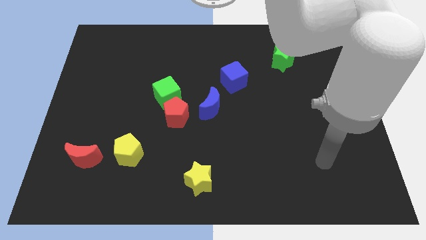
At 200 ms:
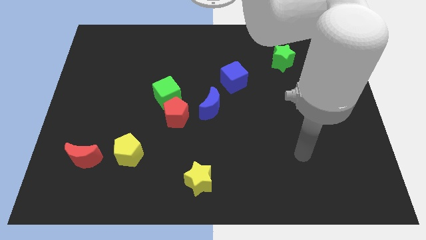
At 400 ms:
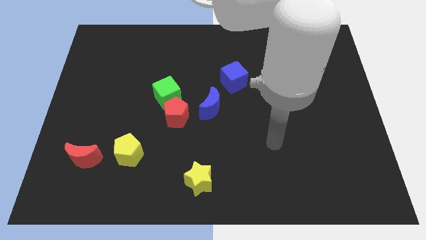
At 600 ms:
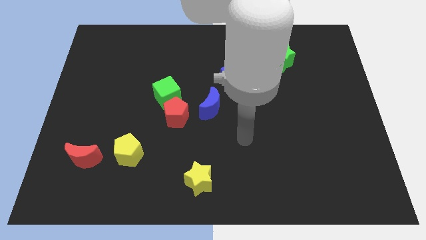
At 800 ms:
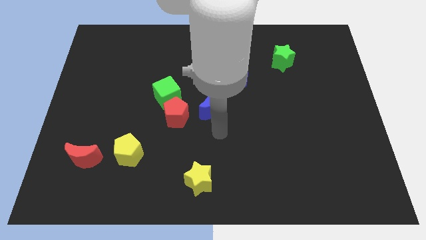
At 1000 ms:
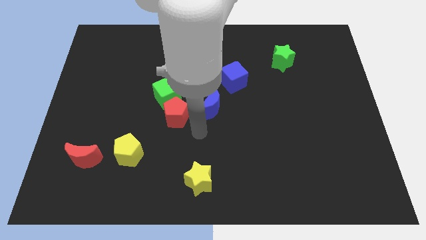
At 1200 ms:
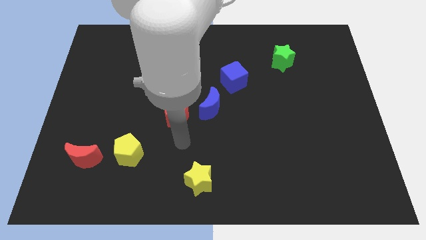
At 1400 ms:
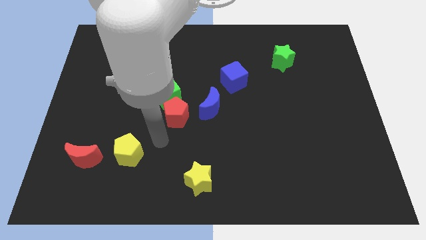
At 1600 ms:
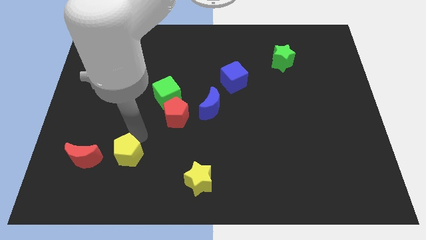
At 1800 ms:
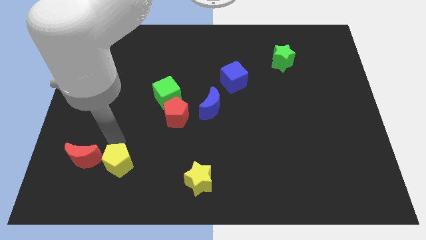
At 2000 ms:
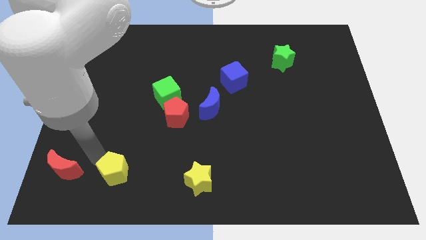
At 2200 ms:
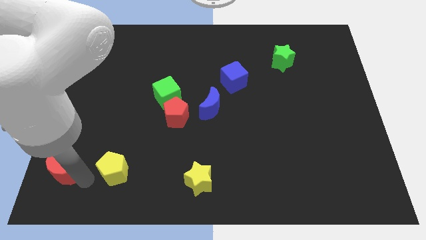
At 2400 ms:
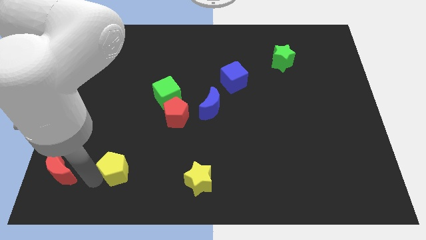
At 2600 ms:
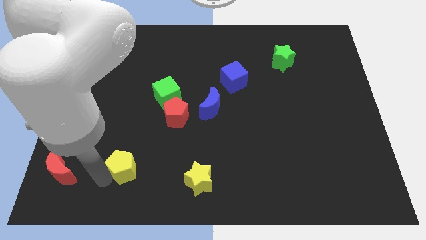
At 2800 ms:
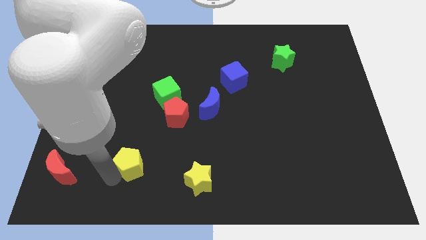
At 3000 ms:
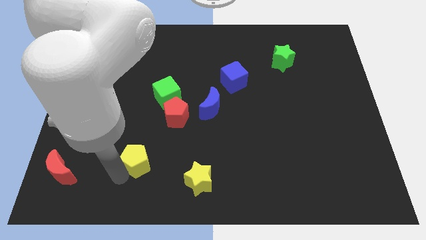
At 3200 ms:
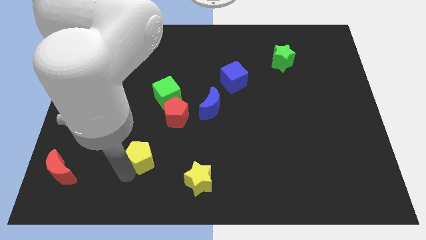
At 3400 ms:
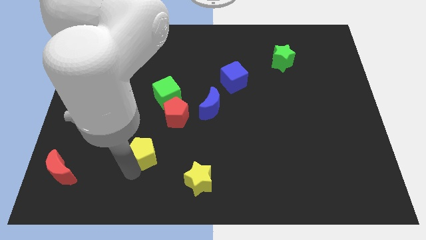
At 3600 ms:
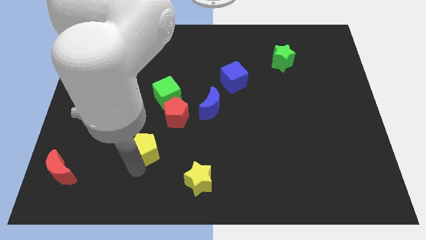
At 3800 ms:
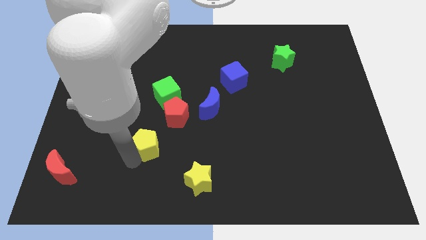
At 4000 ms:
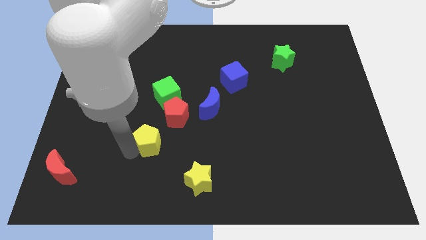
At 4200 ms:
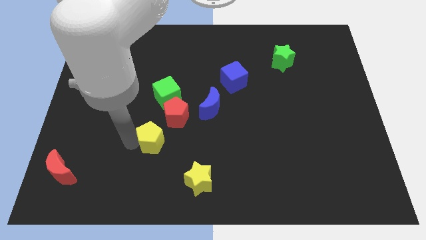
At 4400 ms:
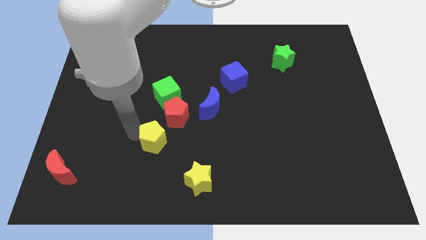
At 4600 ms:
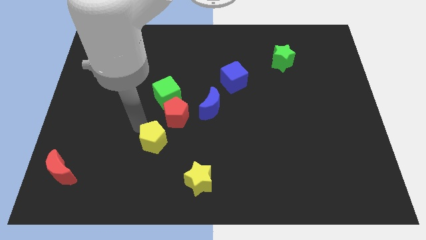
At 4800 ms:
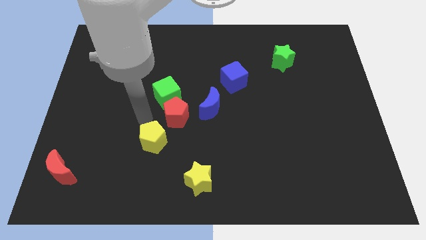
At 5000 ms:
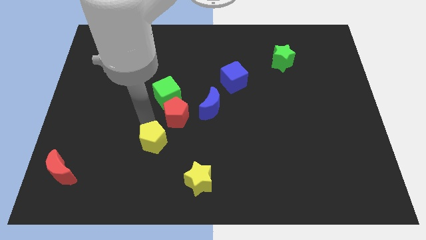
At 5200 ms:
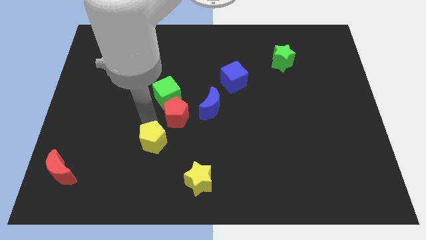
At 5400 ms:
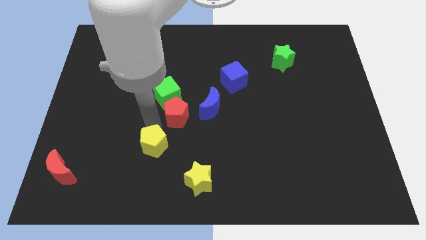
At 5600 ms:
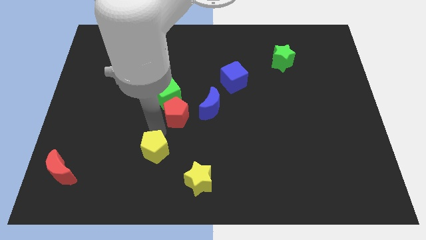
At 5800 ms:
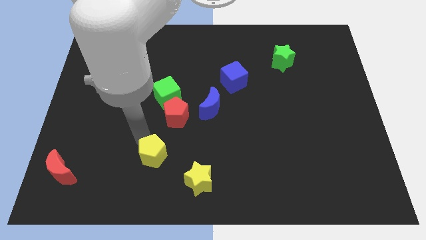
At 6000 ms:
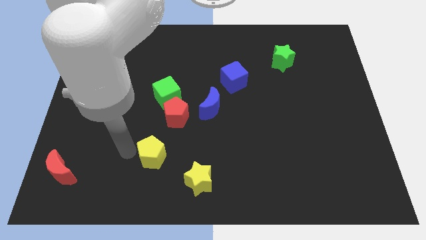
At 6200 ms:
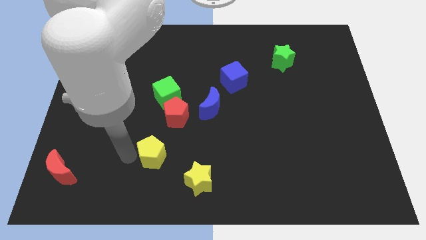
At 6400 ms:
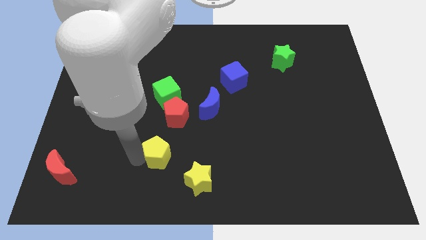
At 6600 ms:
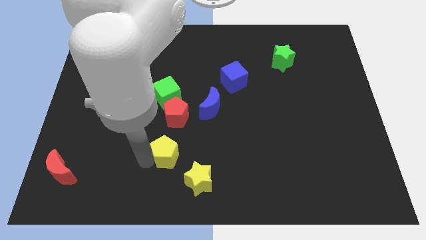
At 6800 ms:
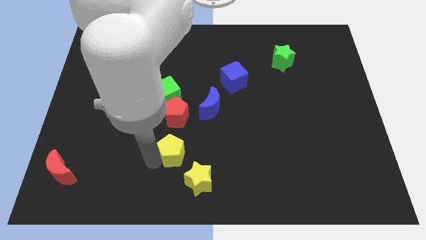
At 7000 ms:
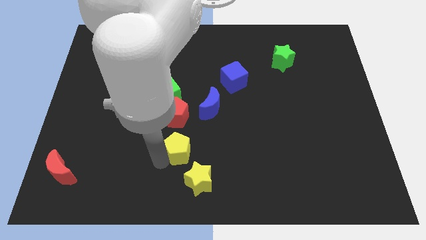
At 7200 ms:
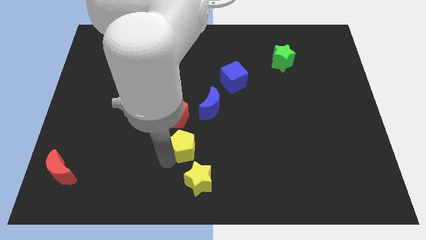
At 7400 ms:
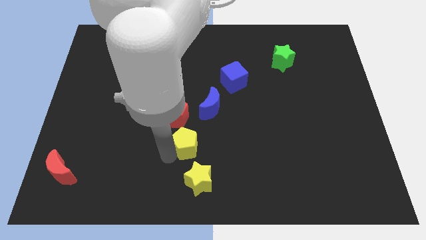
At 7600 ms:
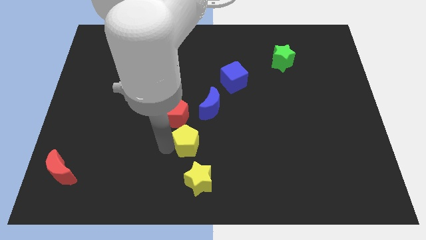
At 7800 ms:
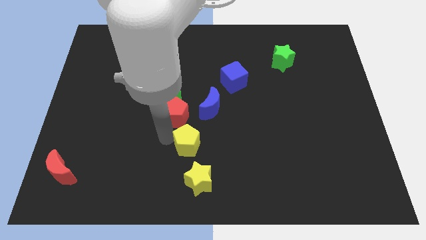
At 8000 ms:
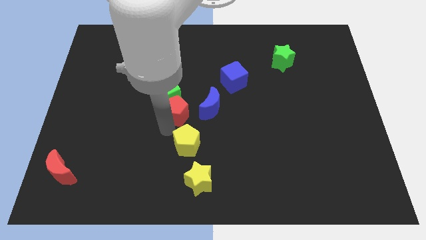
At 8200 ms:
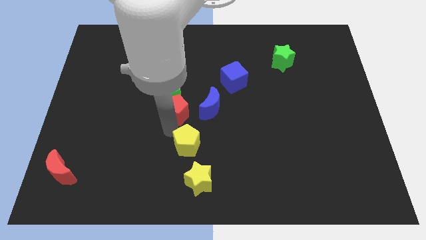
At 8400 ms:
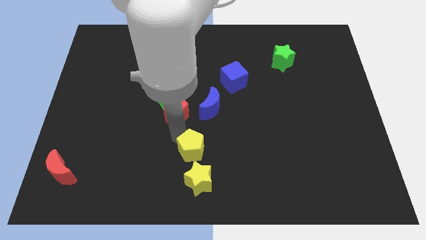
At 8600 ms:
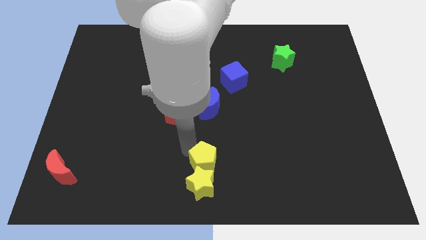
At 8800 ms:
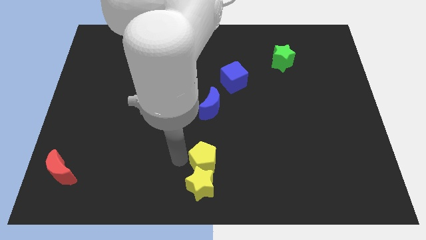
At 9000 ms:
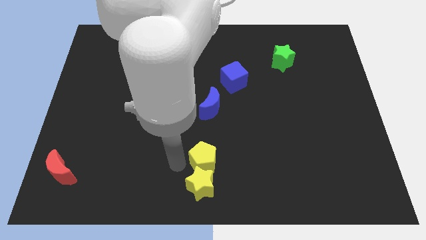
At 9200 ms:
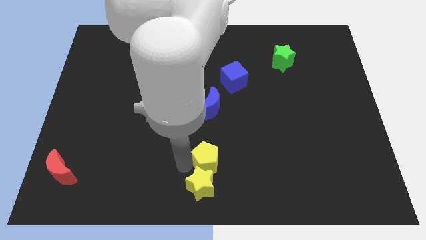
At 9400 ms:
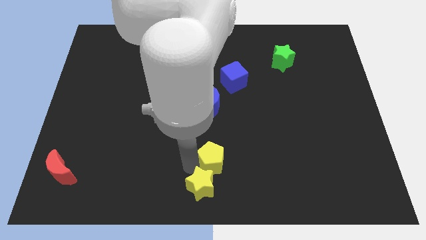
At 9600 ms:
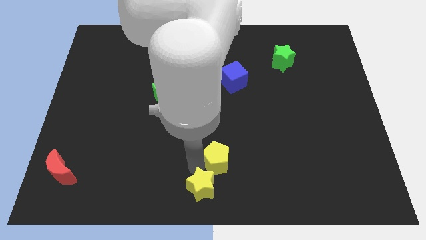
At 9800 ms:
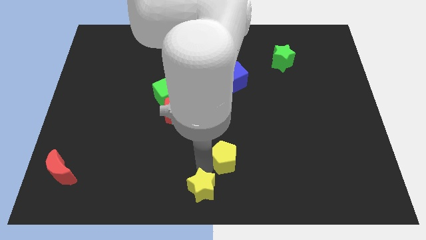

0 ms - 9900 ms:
slide the yellow pentagon to the right

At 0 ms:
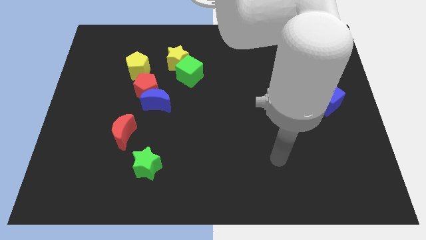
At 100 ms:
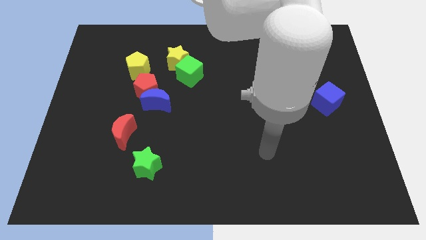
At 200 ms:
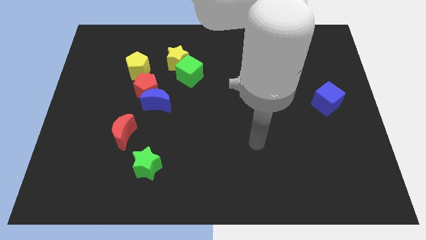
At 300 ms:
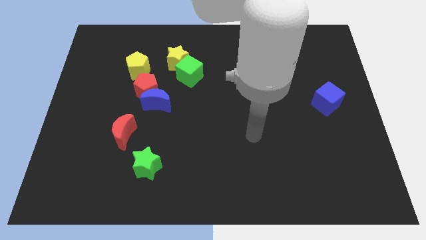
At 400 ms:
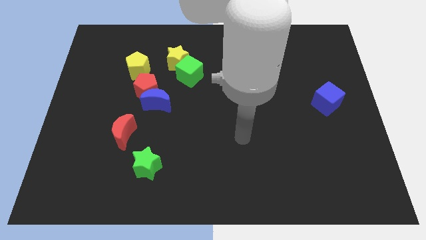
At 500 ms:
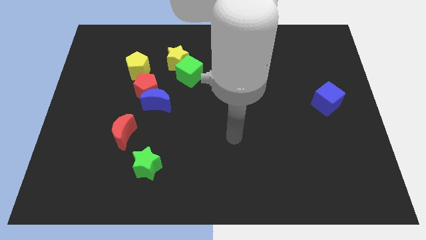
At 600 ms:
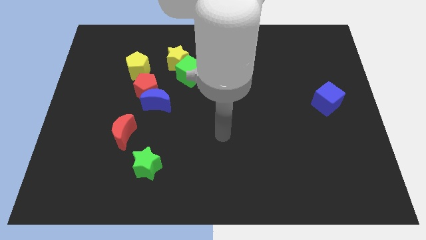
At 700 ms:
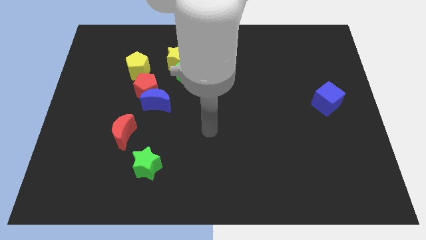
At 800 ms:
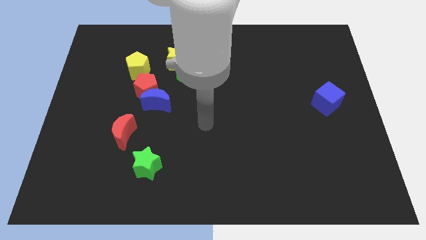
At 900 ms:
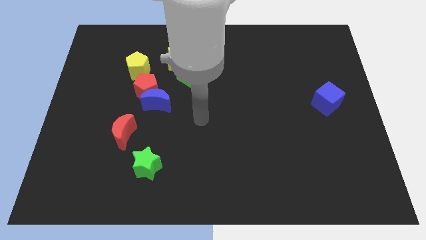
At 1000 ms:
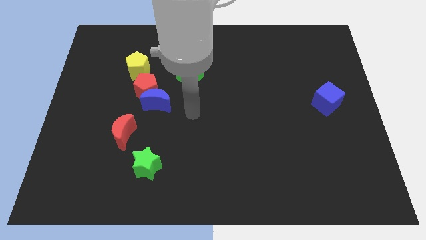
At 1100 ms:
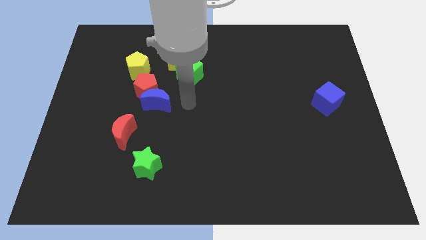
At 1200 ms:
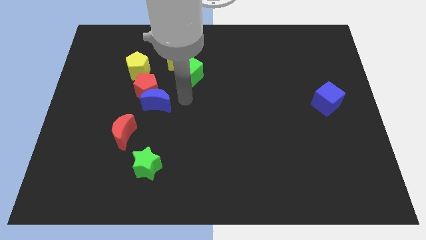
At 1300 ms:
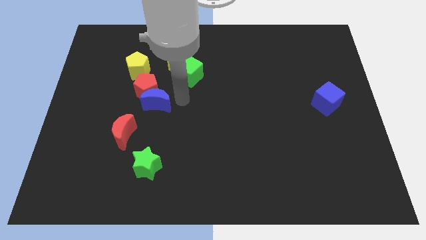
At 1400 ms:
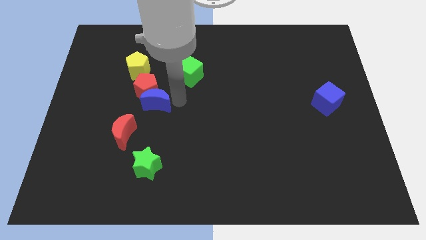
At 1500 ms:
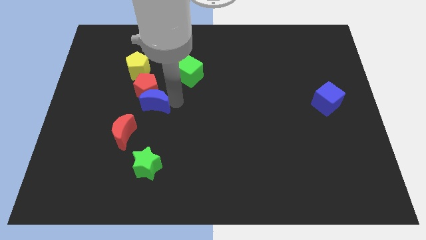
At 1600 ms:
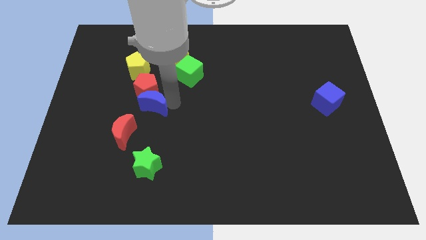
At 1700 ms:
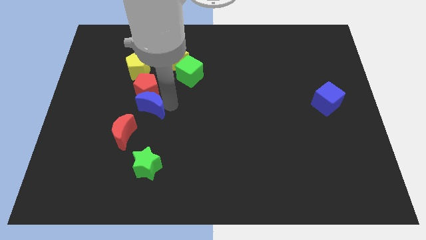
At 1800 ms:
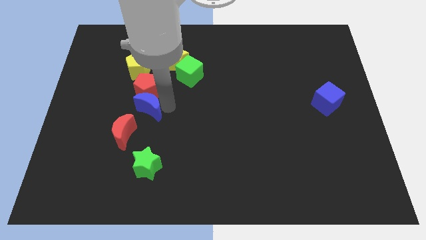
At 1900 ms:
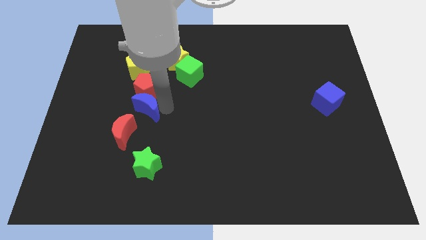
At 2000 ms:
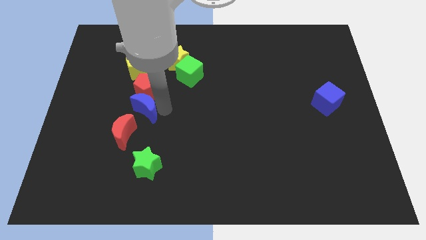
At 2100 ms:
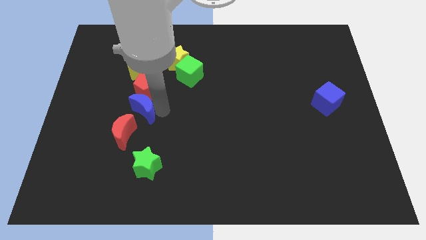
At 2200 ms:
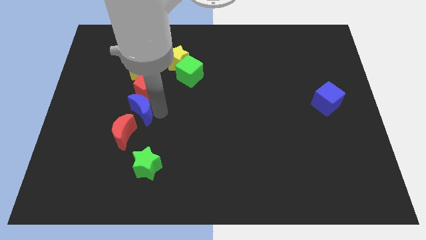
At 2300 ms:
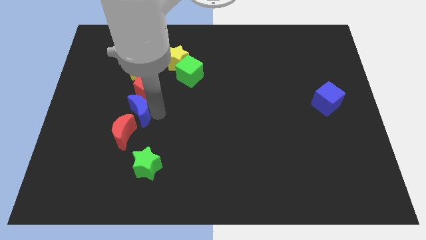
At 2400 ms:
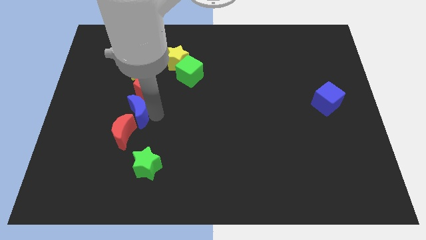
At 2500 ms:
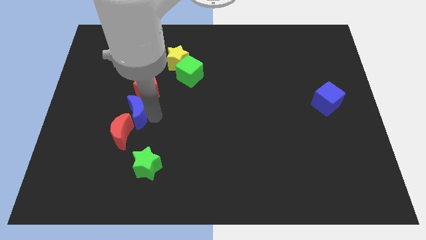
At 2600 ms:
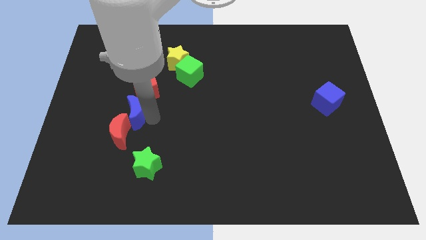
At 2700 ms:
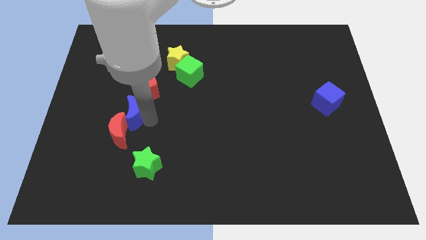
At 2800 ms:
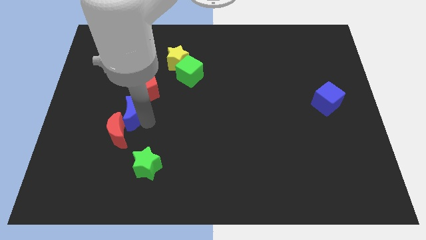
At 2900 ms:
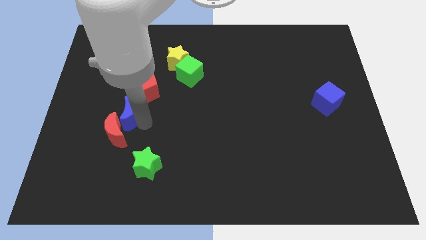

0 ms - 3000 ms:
slightly slide the blue moon diagonally downwards and left
